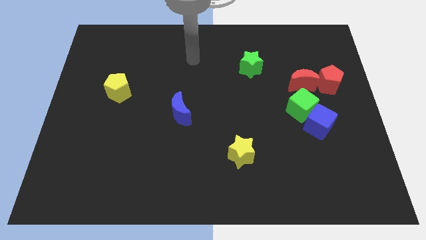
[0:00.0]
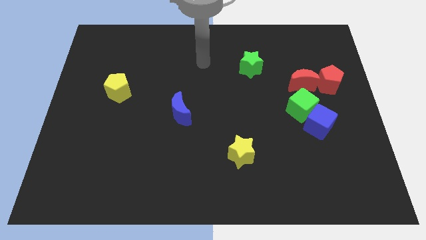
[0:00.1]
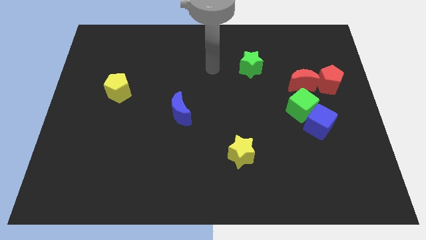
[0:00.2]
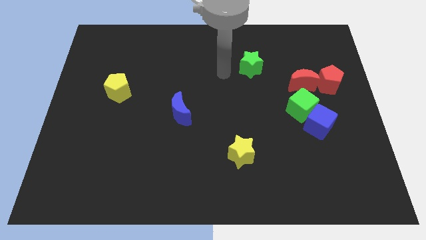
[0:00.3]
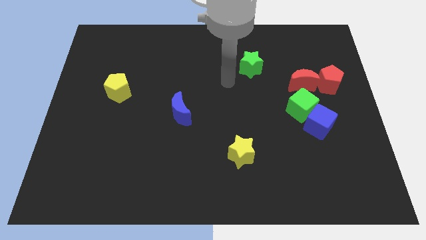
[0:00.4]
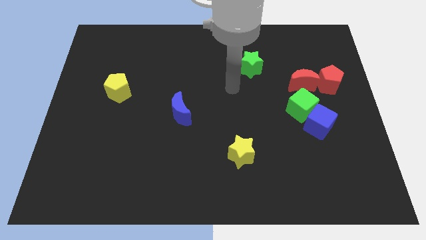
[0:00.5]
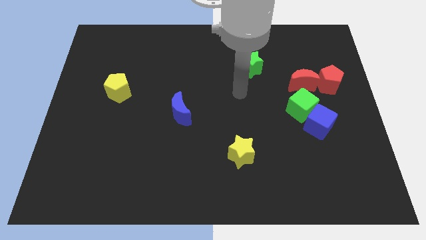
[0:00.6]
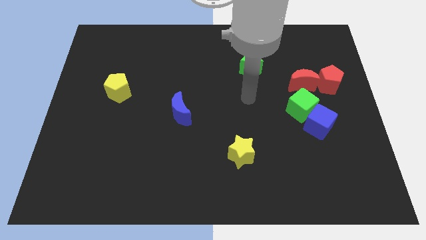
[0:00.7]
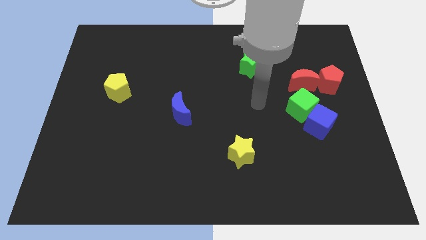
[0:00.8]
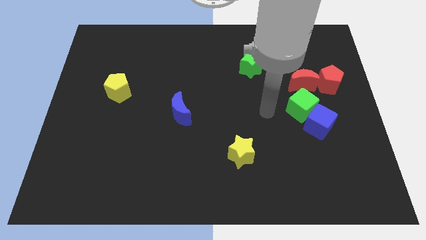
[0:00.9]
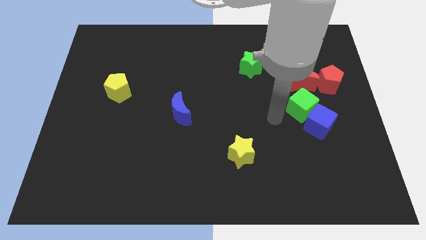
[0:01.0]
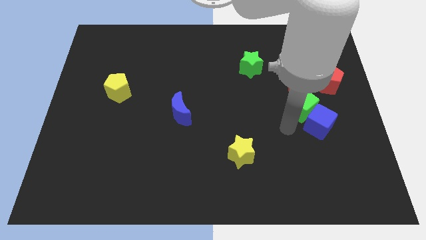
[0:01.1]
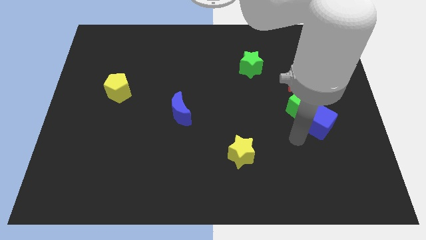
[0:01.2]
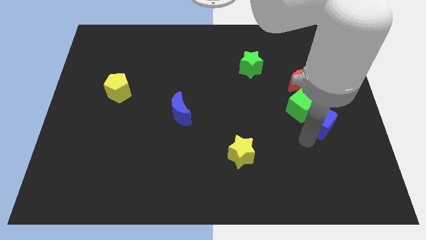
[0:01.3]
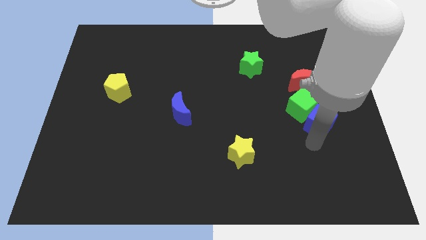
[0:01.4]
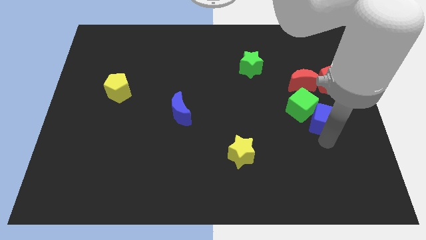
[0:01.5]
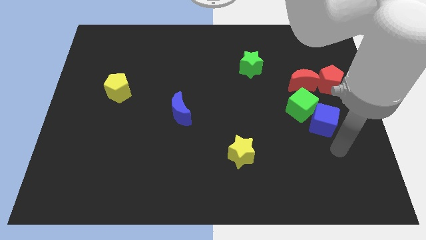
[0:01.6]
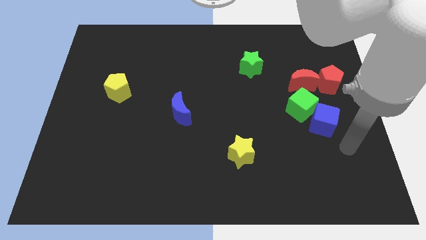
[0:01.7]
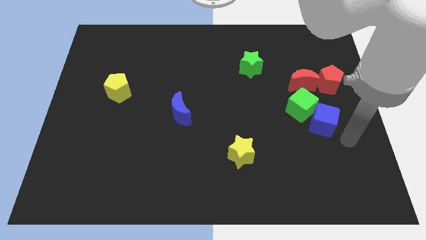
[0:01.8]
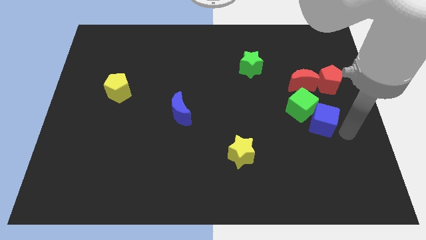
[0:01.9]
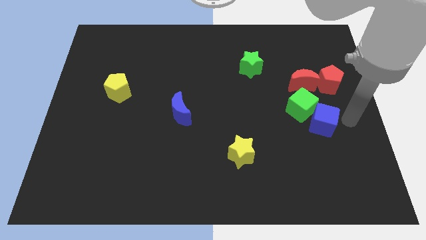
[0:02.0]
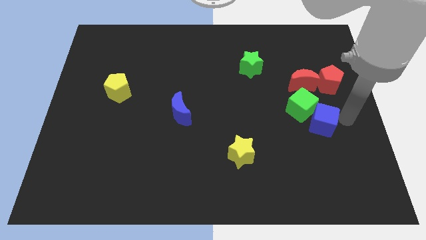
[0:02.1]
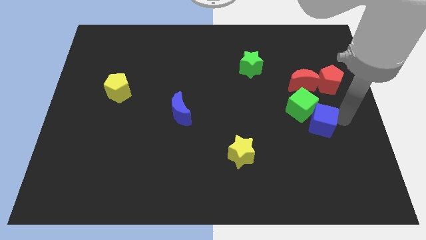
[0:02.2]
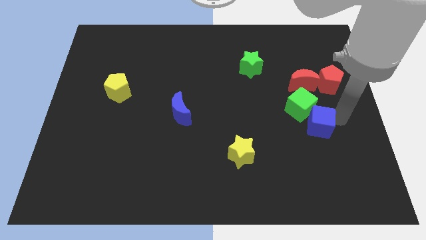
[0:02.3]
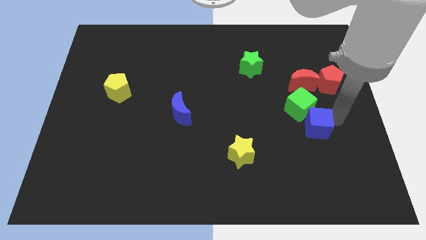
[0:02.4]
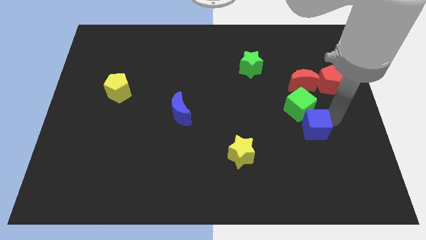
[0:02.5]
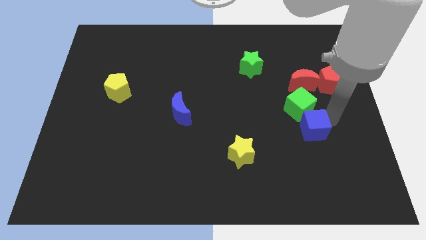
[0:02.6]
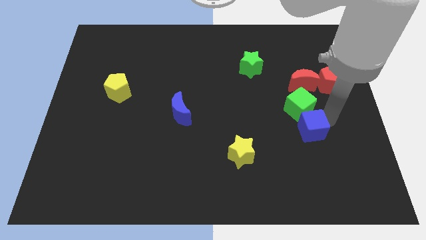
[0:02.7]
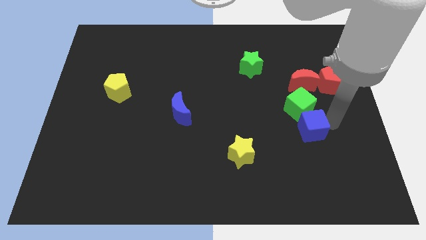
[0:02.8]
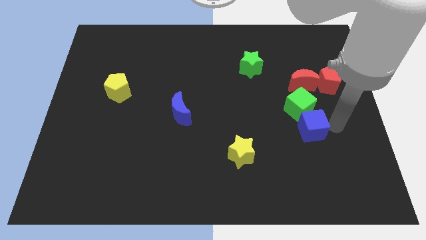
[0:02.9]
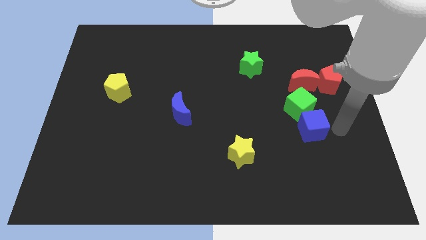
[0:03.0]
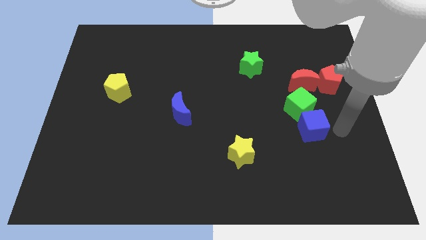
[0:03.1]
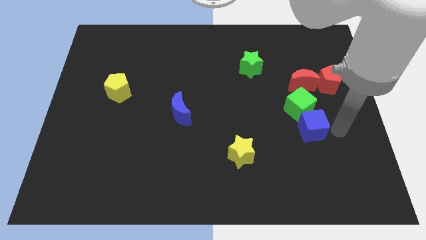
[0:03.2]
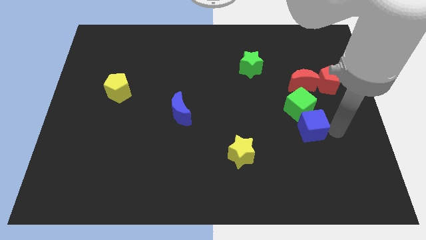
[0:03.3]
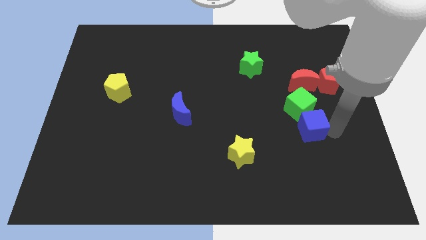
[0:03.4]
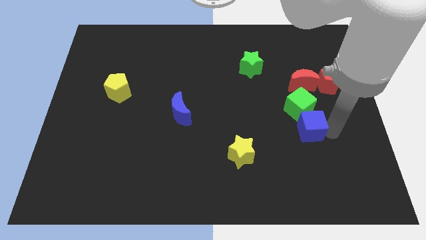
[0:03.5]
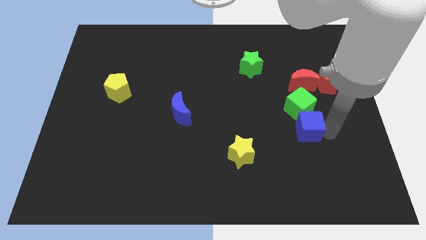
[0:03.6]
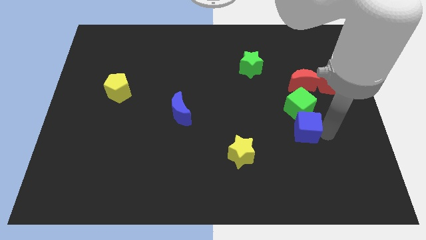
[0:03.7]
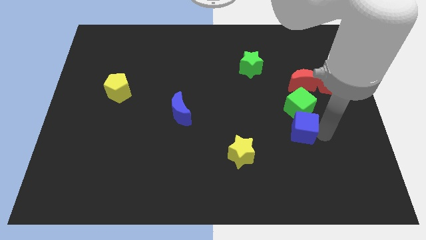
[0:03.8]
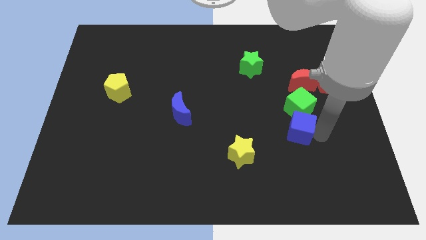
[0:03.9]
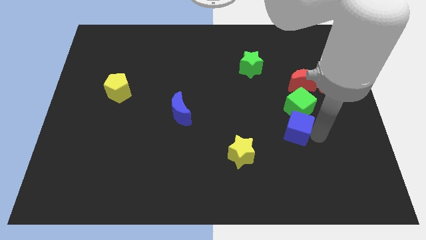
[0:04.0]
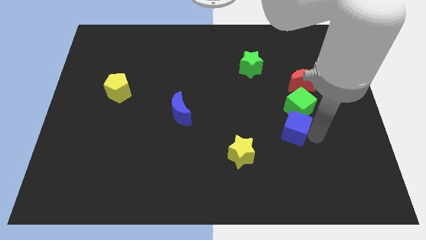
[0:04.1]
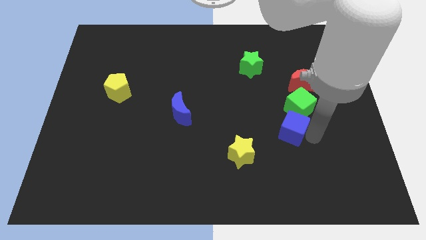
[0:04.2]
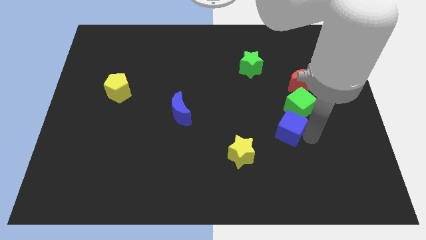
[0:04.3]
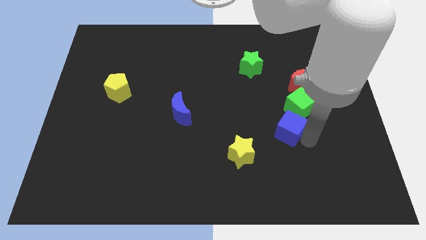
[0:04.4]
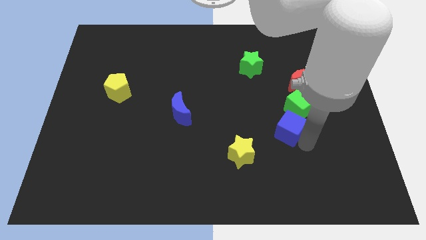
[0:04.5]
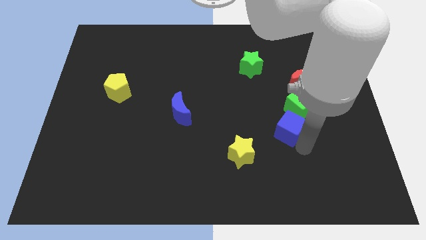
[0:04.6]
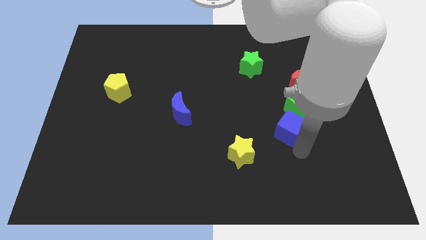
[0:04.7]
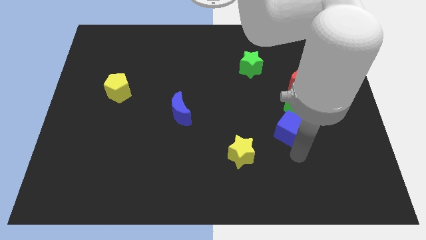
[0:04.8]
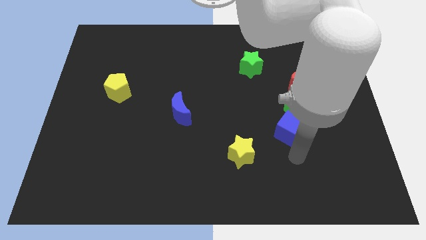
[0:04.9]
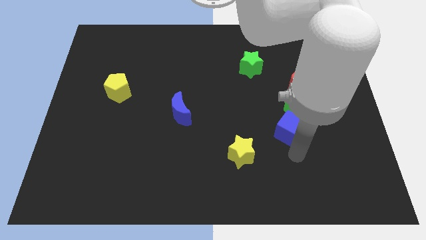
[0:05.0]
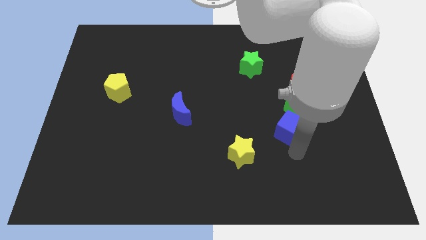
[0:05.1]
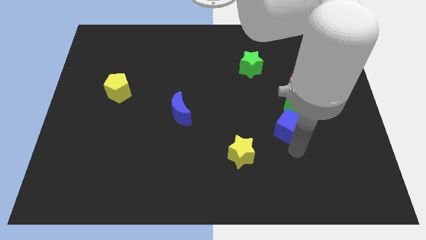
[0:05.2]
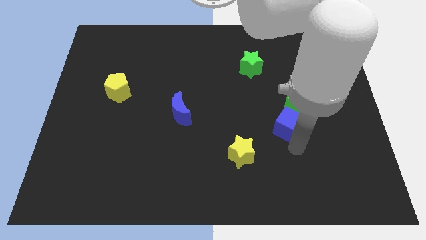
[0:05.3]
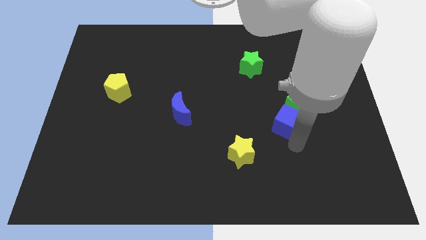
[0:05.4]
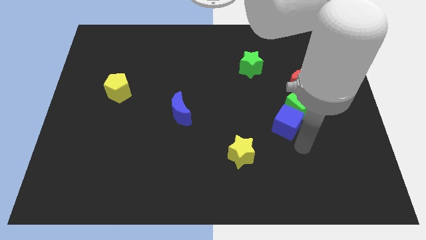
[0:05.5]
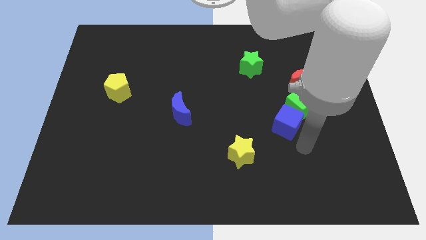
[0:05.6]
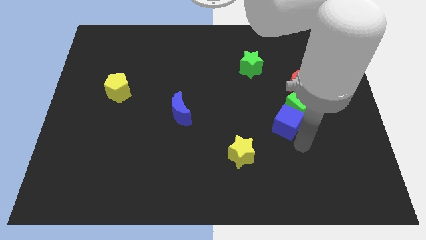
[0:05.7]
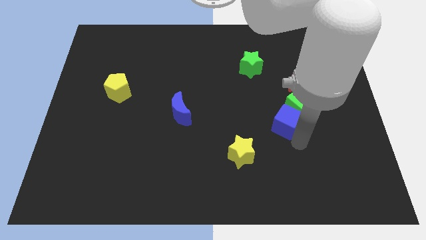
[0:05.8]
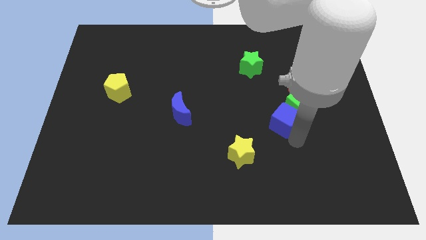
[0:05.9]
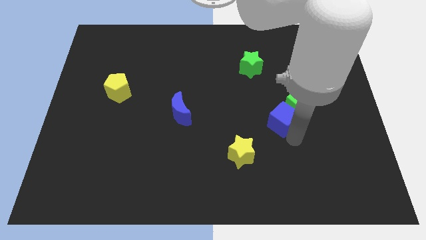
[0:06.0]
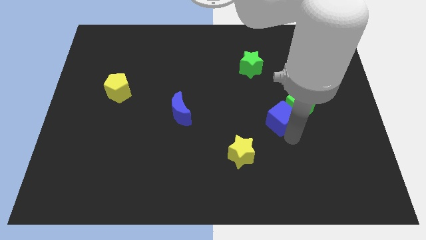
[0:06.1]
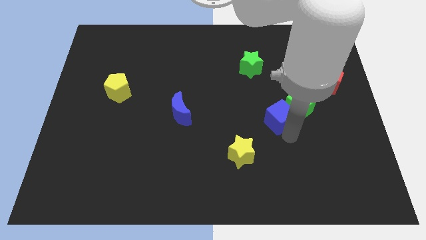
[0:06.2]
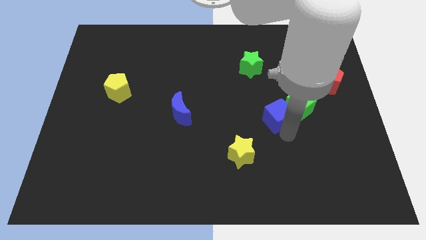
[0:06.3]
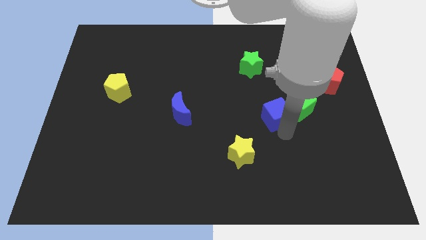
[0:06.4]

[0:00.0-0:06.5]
slightly slide the blue cube diagonally upwards and left

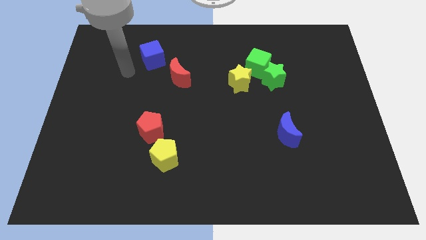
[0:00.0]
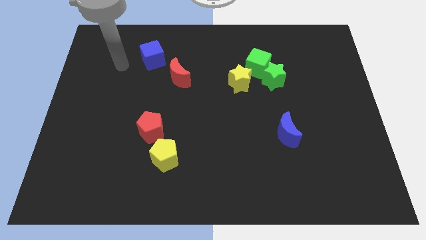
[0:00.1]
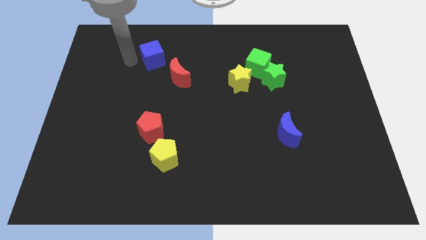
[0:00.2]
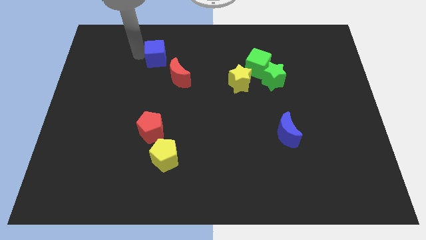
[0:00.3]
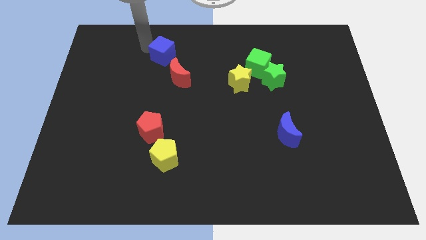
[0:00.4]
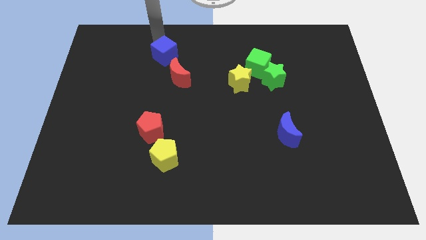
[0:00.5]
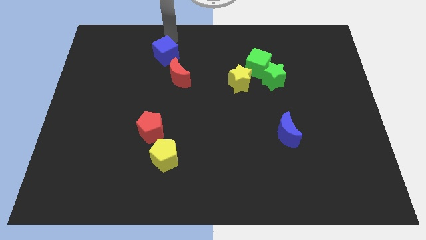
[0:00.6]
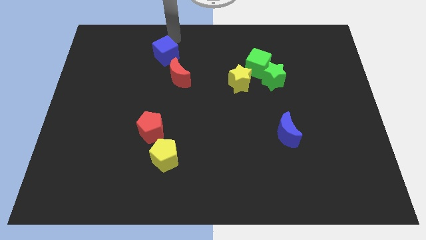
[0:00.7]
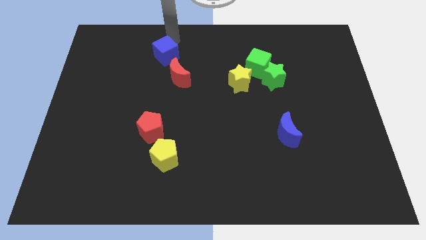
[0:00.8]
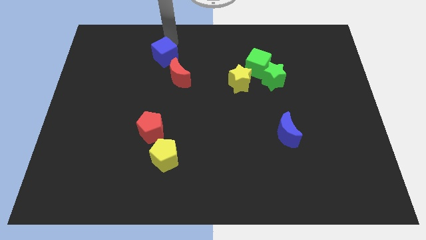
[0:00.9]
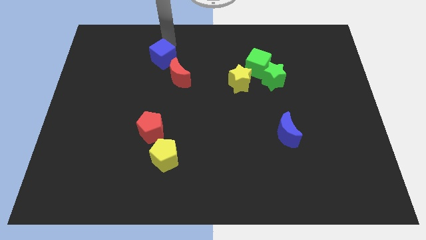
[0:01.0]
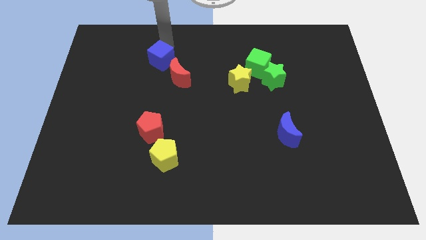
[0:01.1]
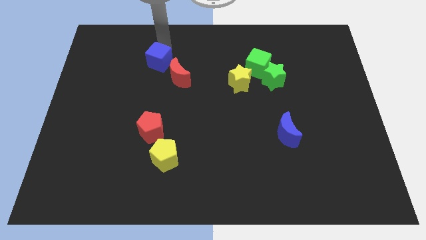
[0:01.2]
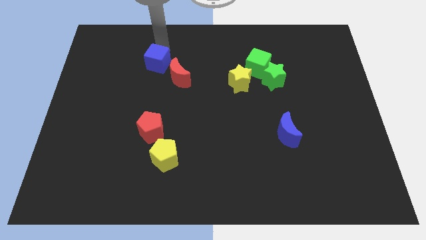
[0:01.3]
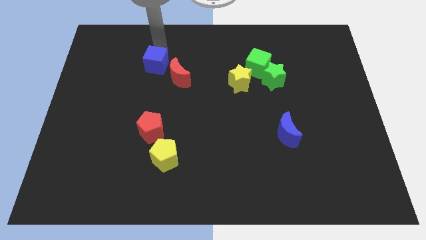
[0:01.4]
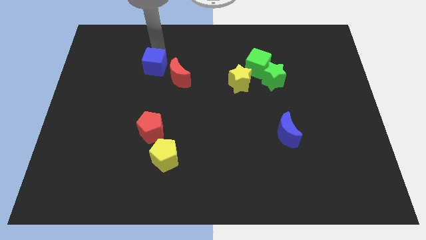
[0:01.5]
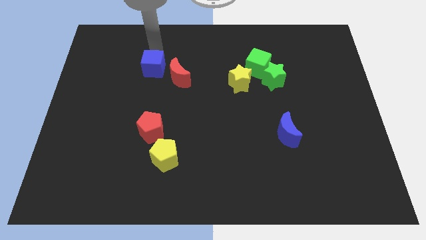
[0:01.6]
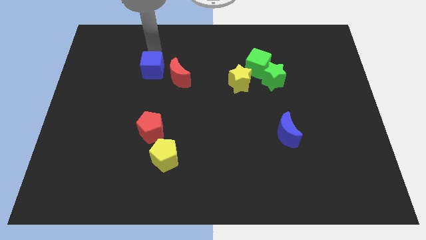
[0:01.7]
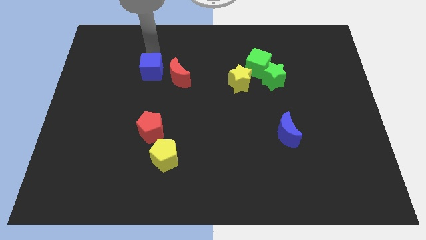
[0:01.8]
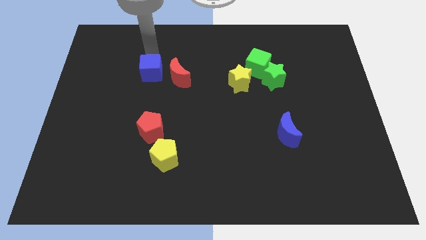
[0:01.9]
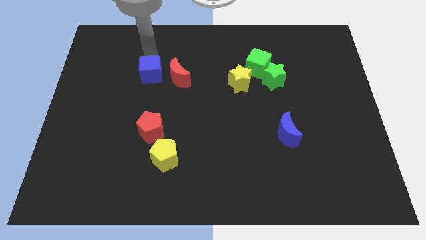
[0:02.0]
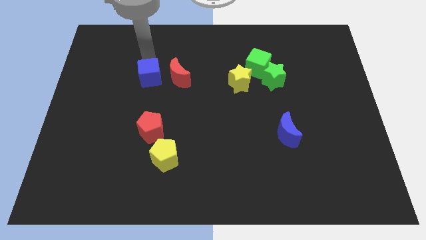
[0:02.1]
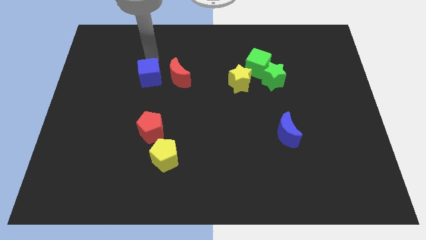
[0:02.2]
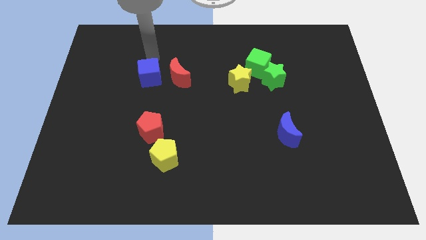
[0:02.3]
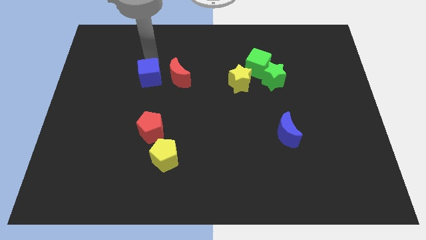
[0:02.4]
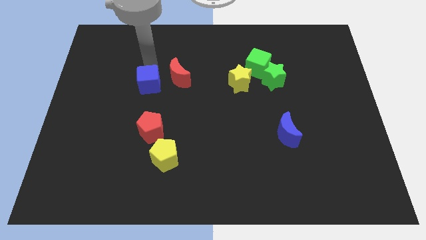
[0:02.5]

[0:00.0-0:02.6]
move the blue cube a little bit down
